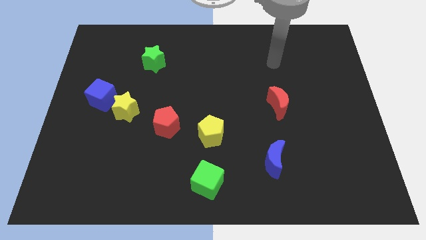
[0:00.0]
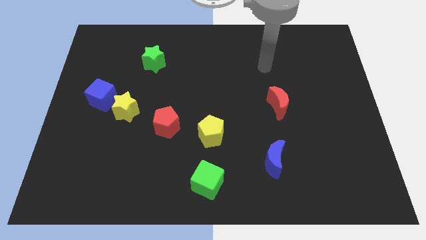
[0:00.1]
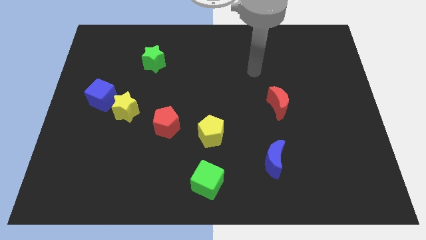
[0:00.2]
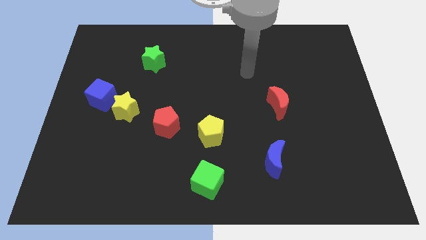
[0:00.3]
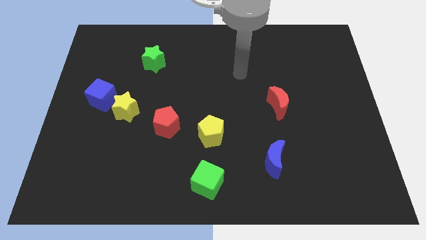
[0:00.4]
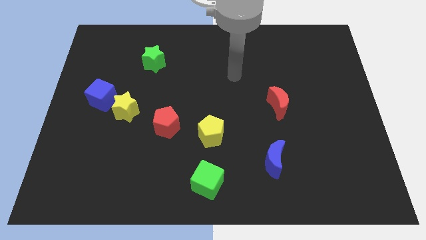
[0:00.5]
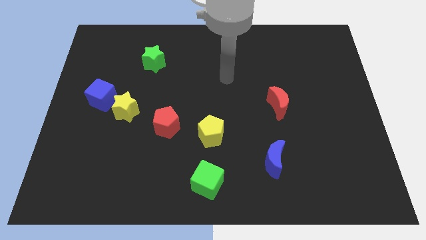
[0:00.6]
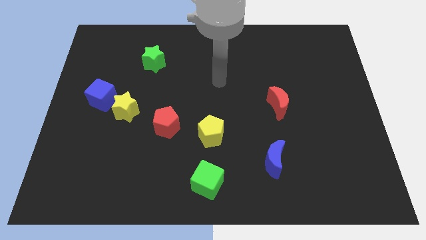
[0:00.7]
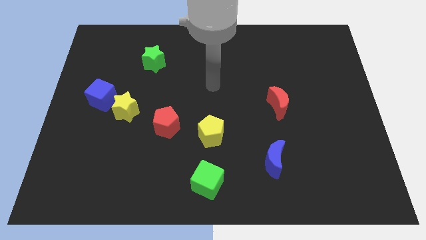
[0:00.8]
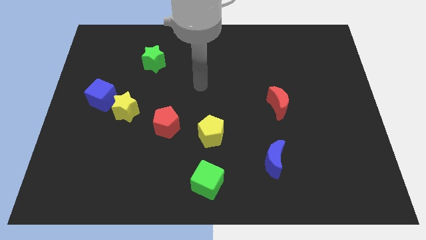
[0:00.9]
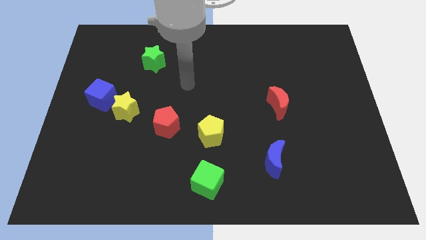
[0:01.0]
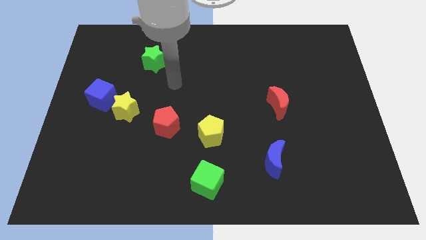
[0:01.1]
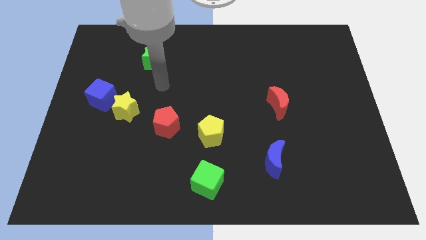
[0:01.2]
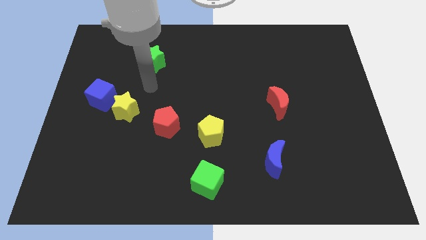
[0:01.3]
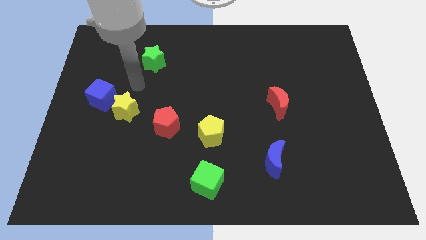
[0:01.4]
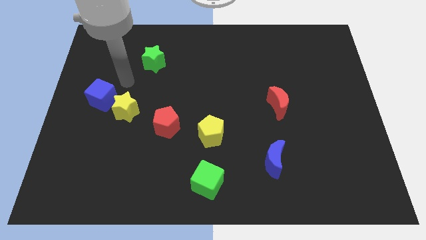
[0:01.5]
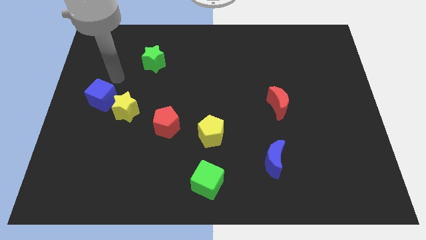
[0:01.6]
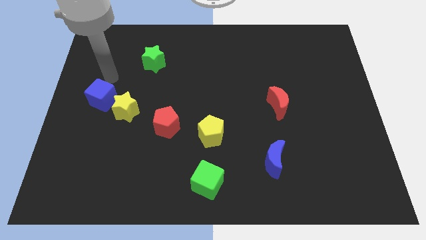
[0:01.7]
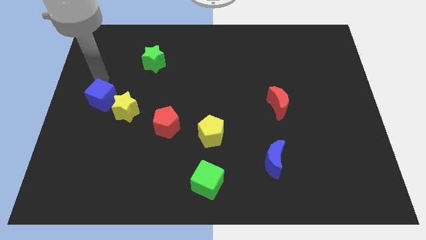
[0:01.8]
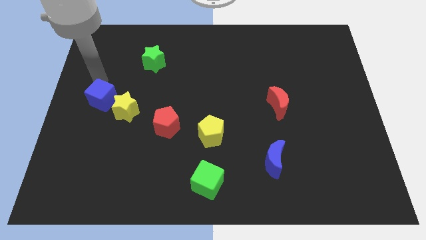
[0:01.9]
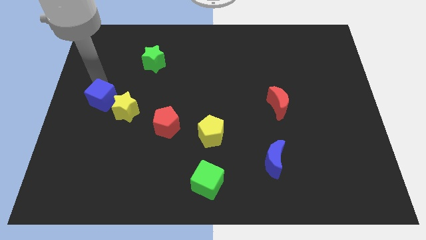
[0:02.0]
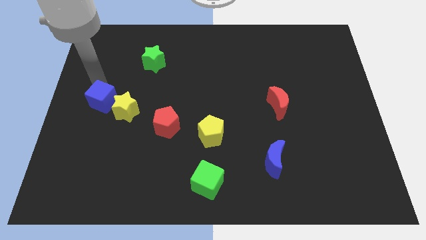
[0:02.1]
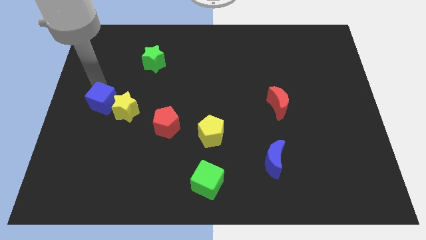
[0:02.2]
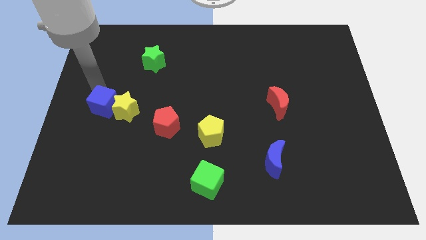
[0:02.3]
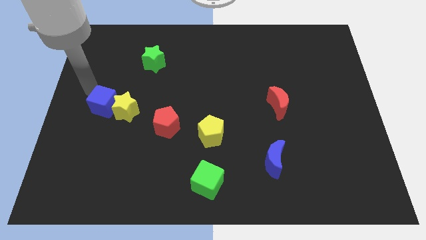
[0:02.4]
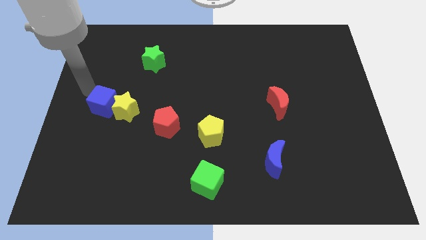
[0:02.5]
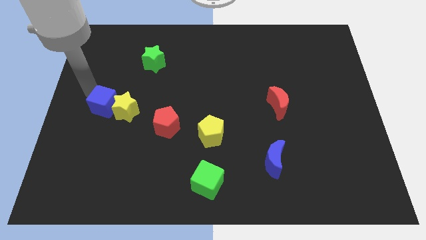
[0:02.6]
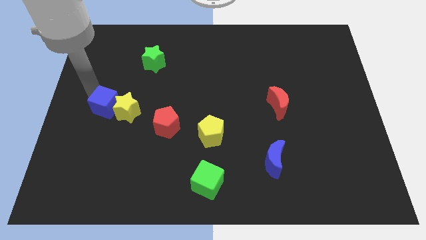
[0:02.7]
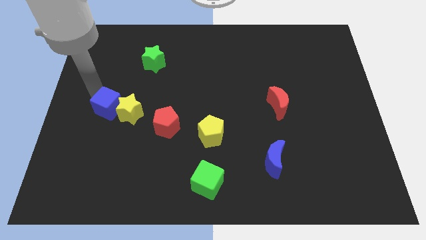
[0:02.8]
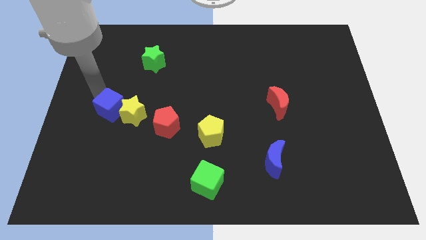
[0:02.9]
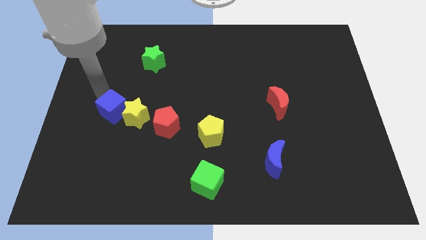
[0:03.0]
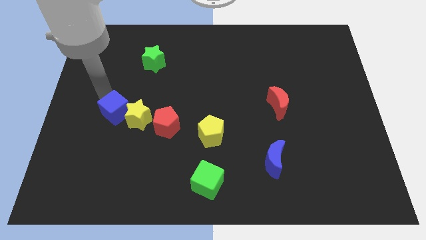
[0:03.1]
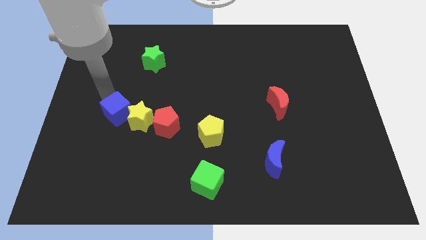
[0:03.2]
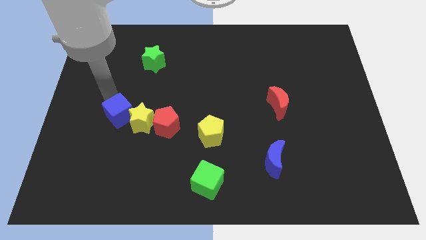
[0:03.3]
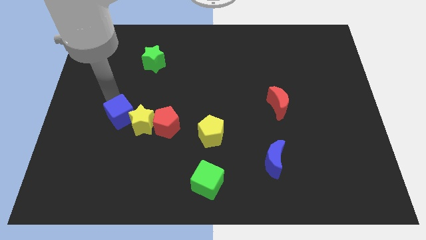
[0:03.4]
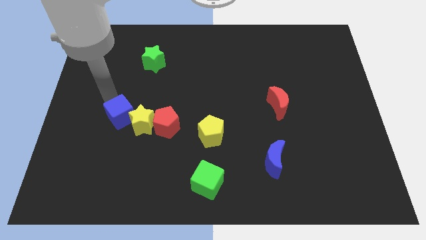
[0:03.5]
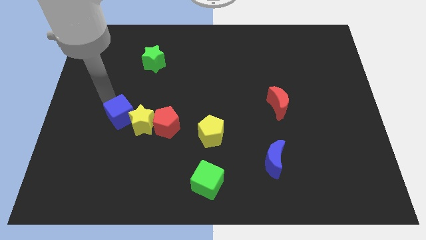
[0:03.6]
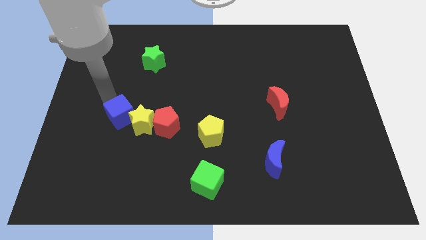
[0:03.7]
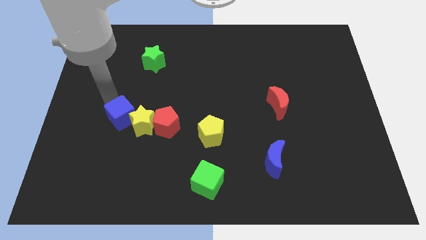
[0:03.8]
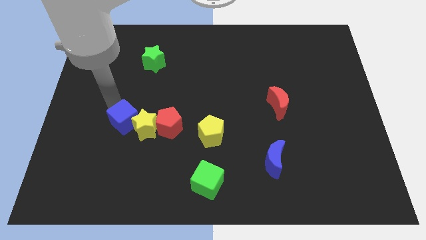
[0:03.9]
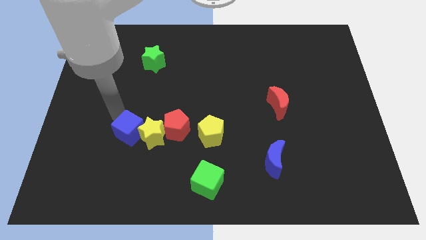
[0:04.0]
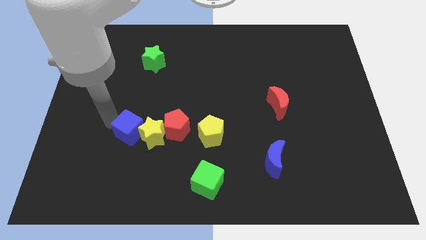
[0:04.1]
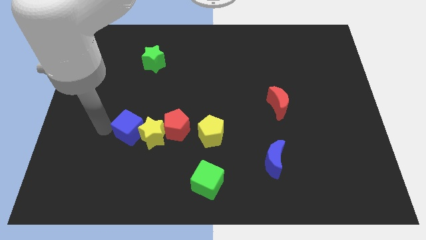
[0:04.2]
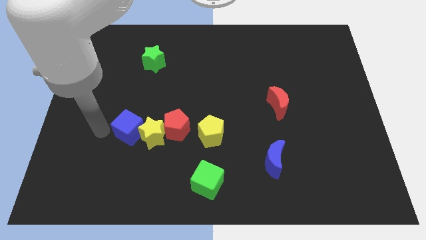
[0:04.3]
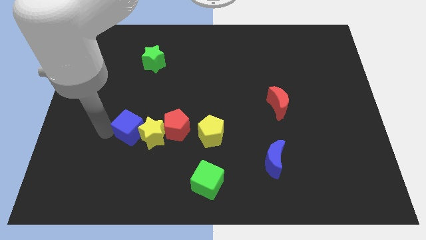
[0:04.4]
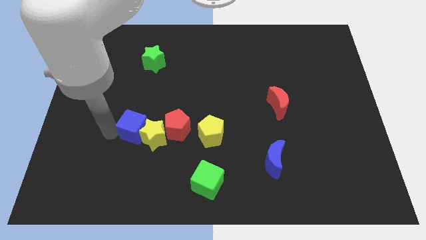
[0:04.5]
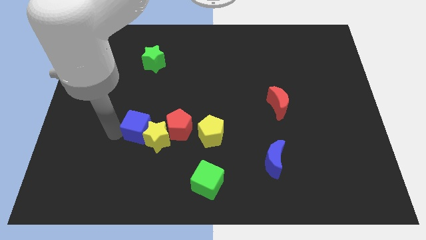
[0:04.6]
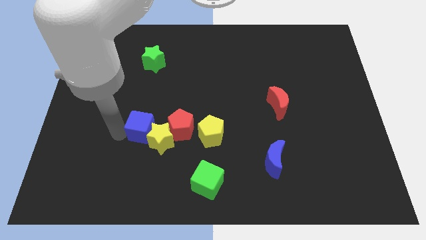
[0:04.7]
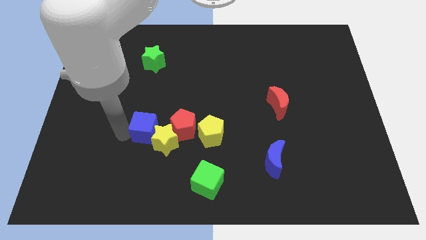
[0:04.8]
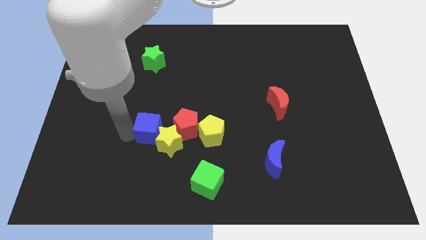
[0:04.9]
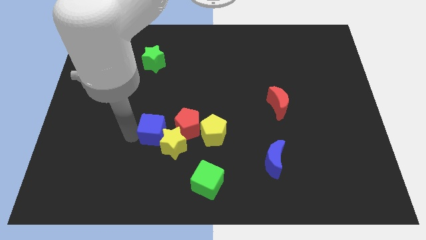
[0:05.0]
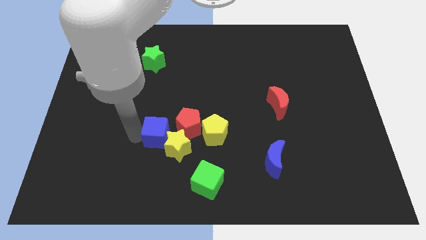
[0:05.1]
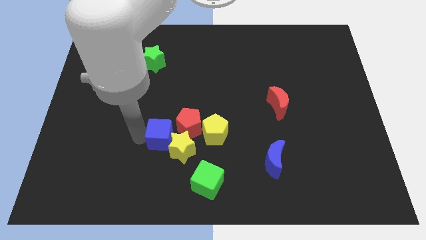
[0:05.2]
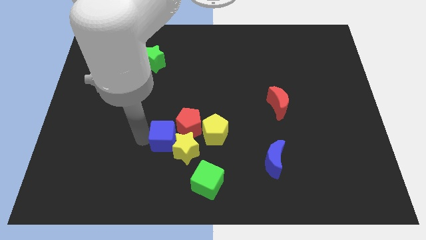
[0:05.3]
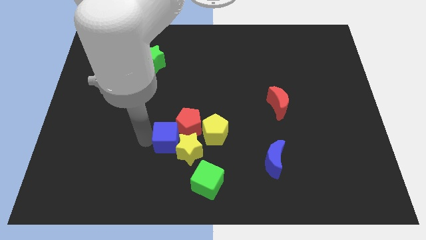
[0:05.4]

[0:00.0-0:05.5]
push the blue cube close to the red pentagon

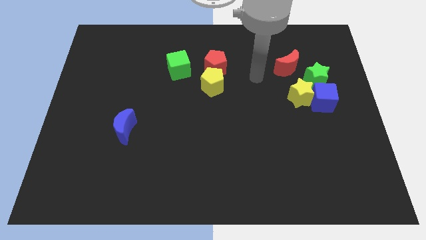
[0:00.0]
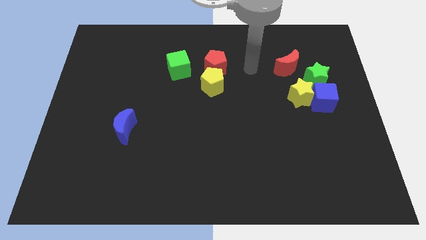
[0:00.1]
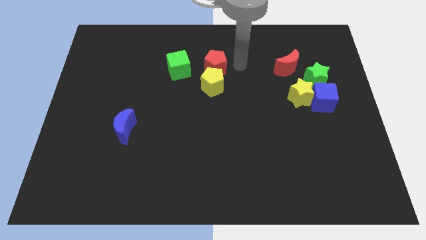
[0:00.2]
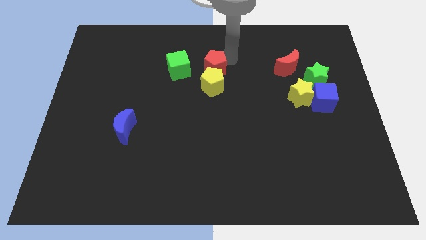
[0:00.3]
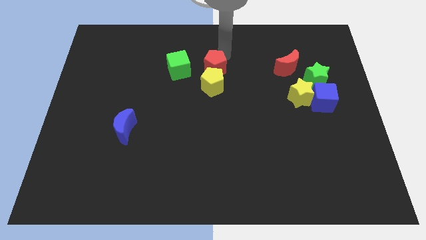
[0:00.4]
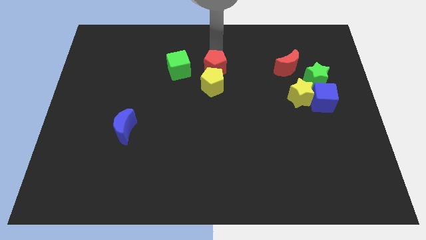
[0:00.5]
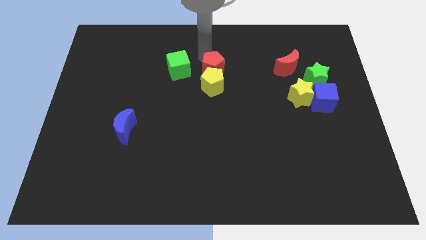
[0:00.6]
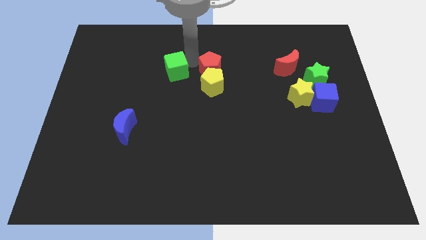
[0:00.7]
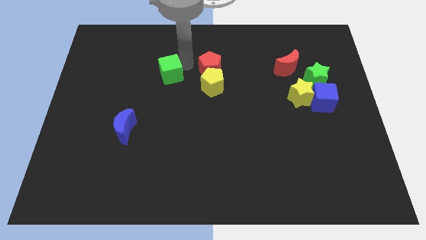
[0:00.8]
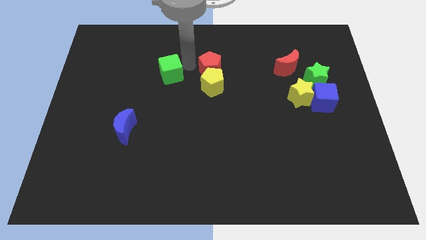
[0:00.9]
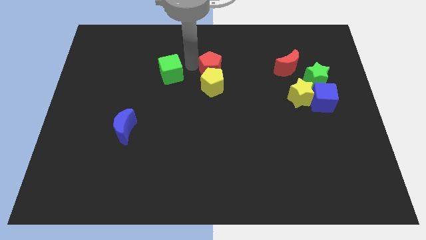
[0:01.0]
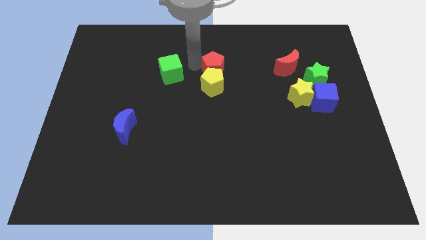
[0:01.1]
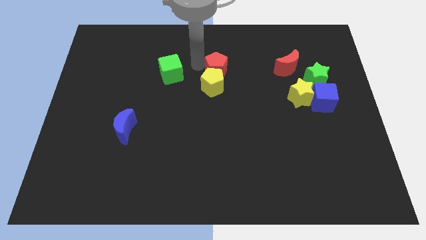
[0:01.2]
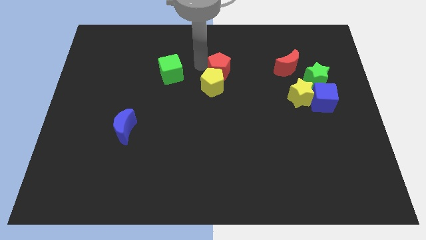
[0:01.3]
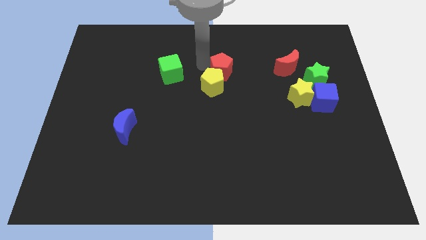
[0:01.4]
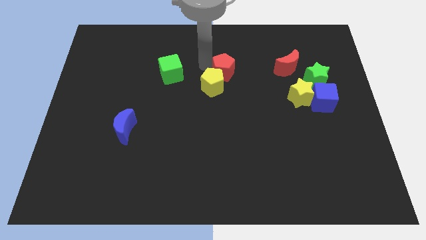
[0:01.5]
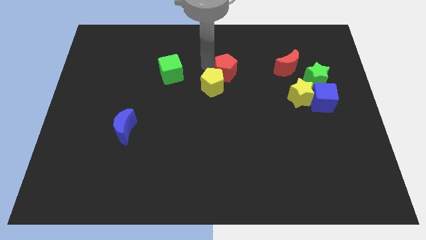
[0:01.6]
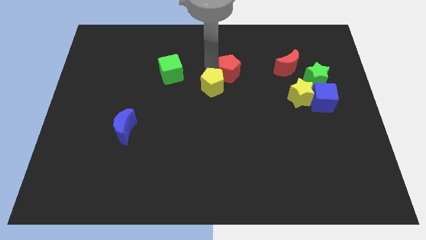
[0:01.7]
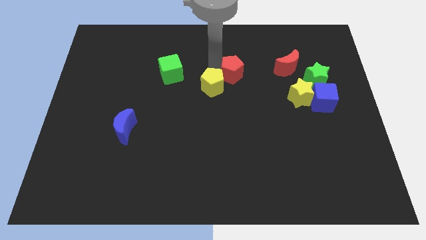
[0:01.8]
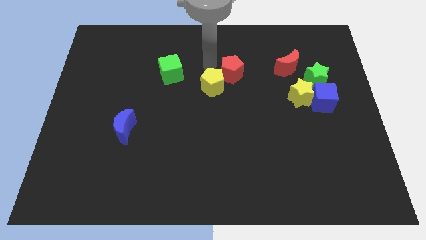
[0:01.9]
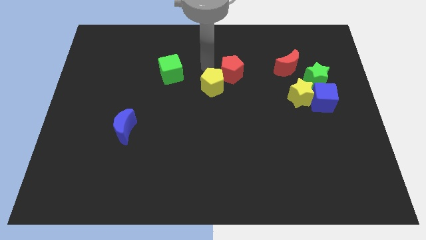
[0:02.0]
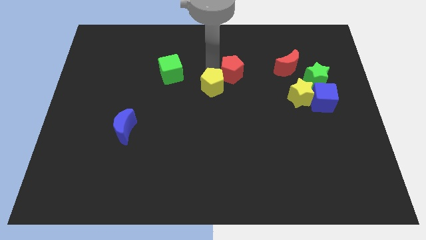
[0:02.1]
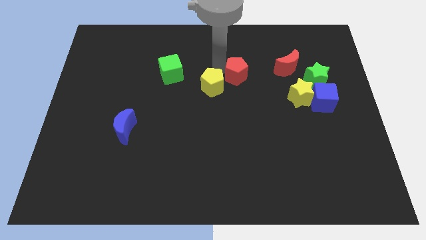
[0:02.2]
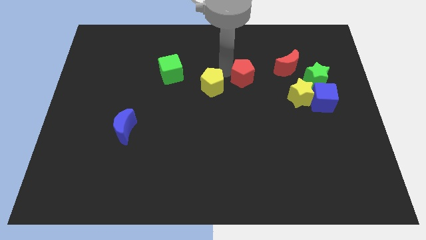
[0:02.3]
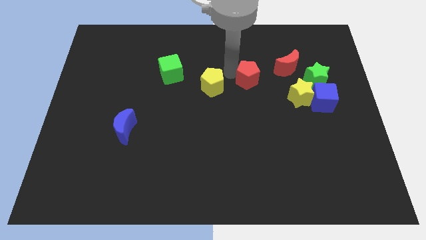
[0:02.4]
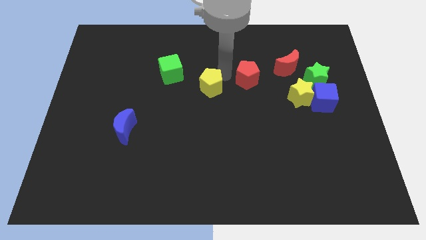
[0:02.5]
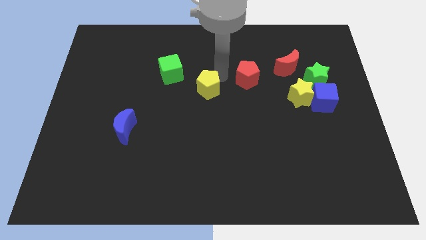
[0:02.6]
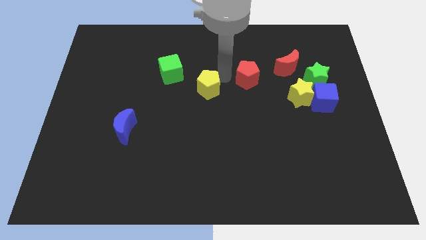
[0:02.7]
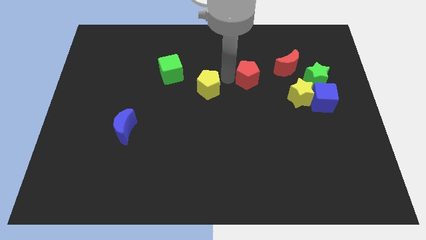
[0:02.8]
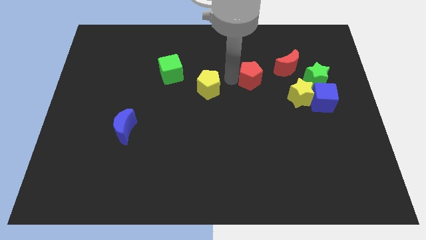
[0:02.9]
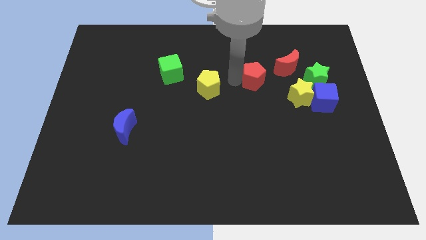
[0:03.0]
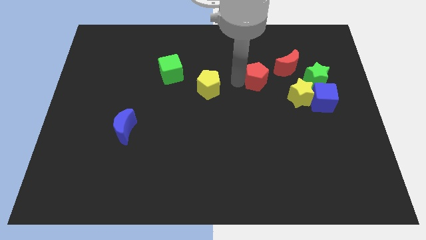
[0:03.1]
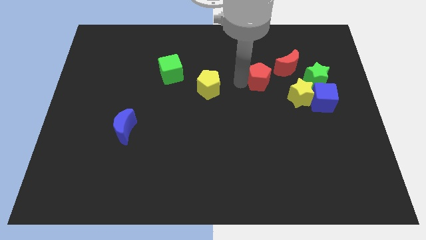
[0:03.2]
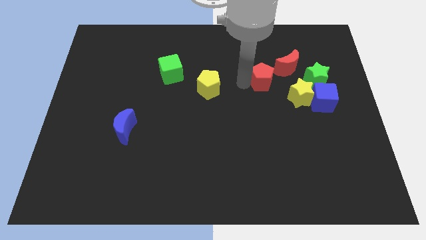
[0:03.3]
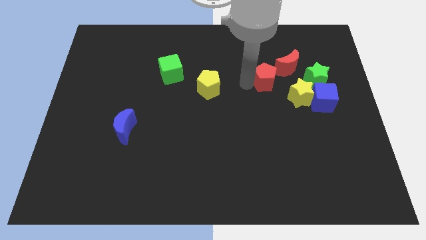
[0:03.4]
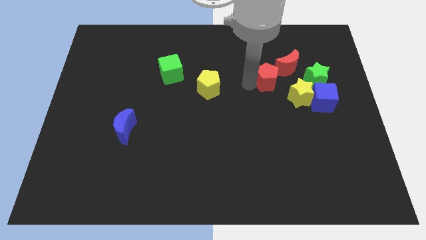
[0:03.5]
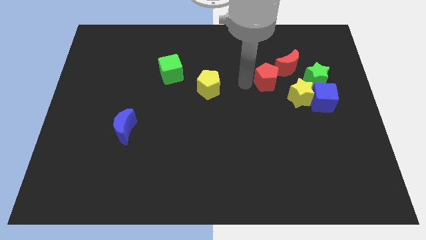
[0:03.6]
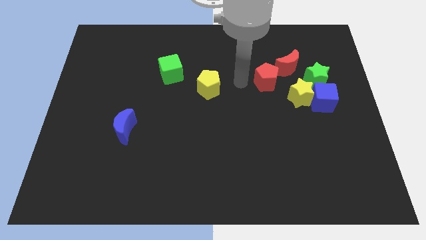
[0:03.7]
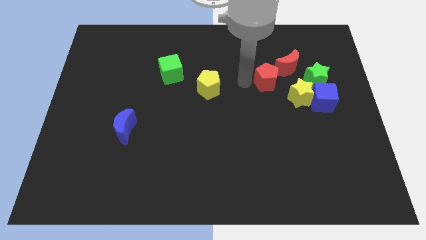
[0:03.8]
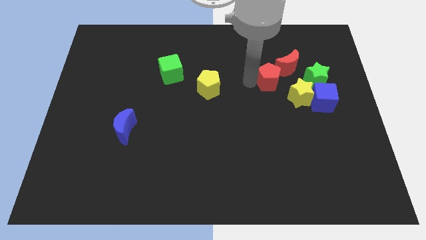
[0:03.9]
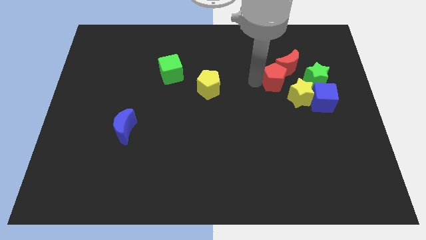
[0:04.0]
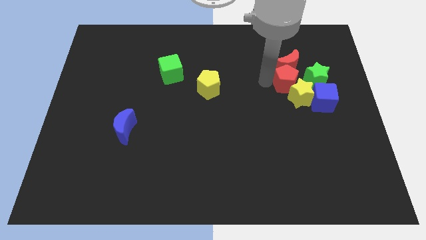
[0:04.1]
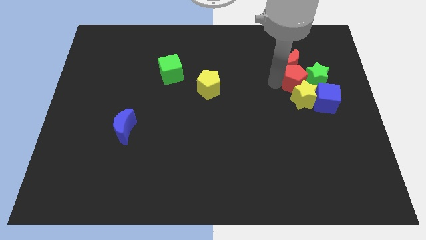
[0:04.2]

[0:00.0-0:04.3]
move the red pentagon close to the green star
